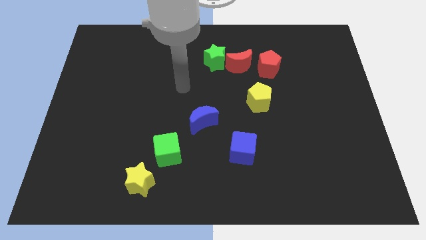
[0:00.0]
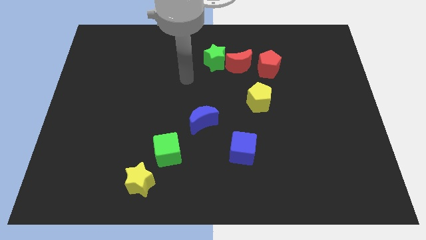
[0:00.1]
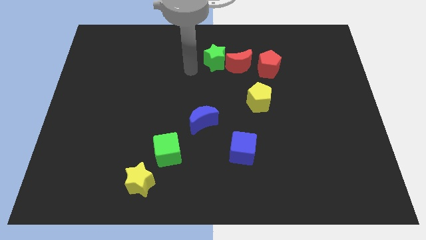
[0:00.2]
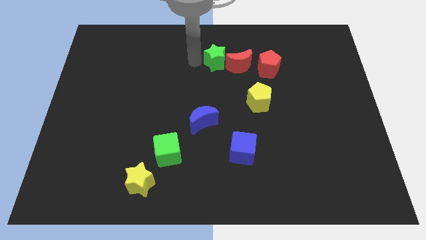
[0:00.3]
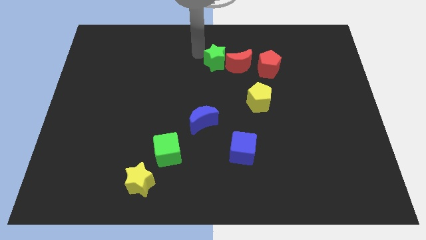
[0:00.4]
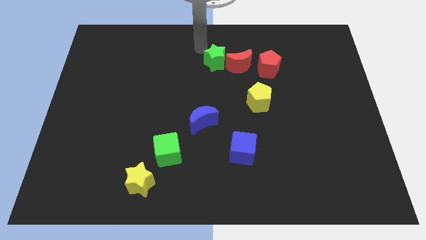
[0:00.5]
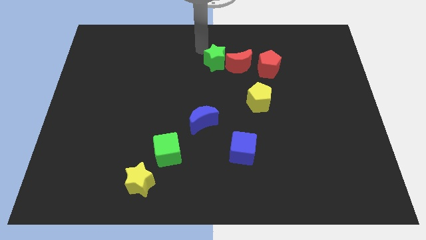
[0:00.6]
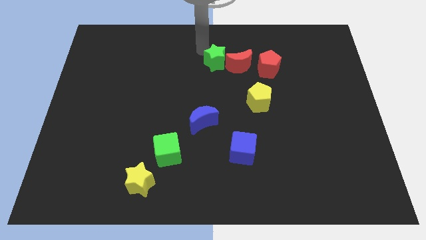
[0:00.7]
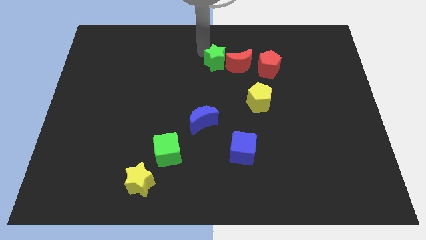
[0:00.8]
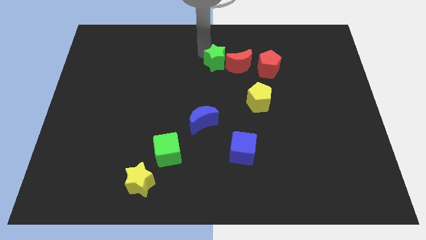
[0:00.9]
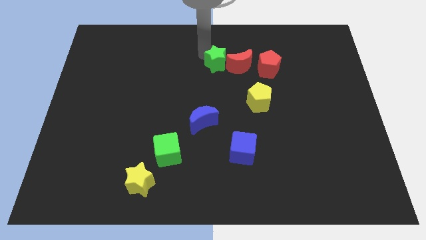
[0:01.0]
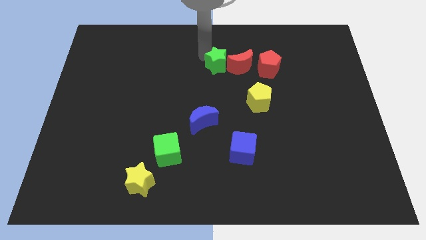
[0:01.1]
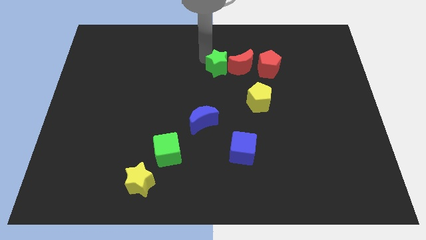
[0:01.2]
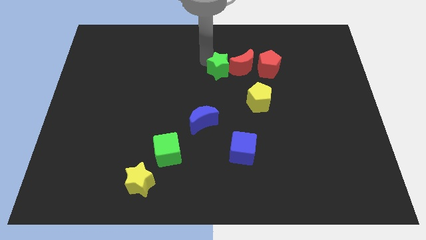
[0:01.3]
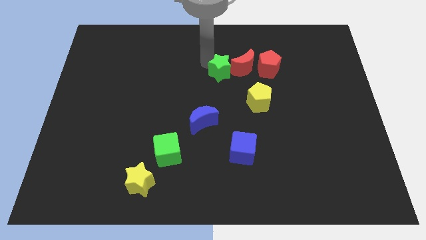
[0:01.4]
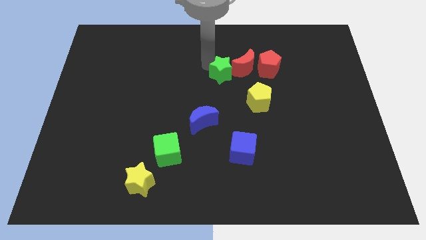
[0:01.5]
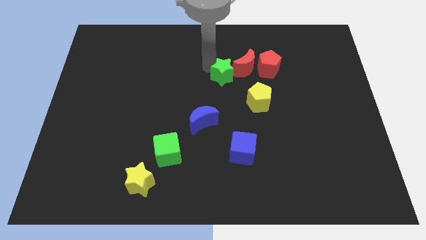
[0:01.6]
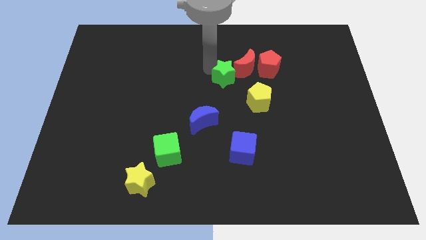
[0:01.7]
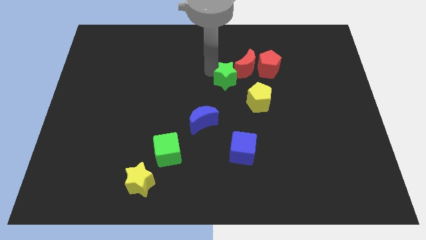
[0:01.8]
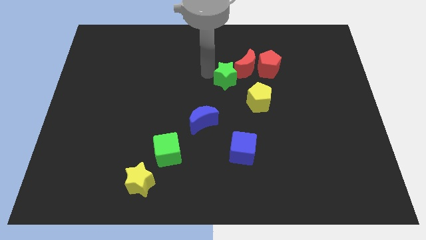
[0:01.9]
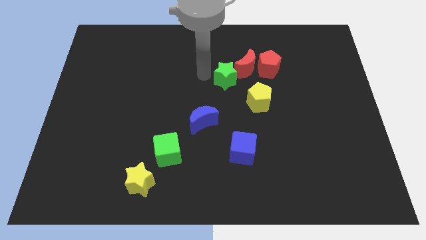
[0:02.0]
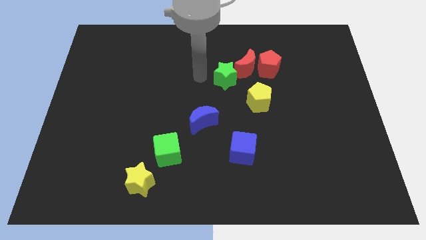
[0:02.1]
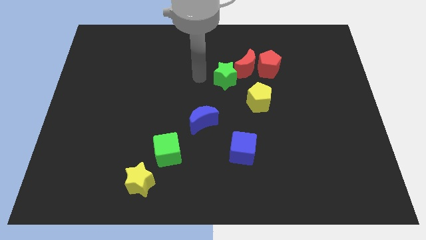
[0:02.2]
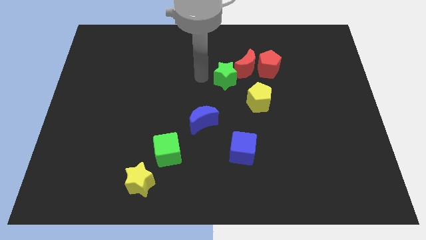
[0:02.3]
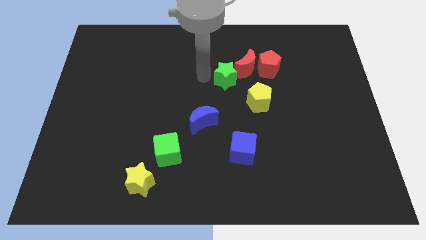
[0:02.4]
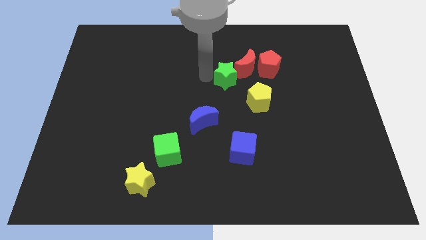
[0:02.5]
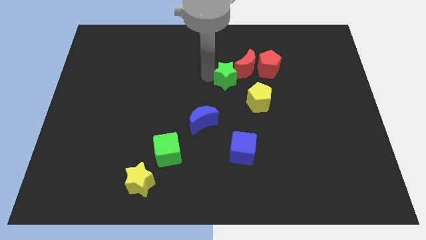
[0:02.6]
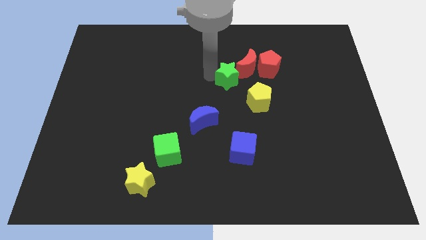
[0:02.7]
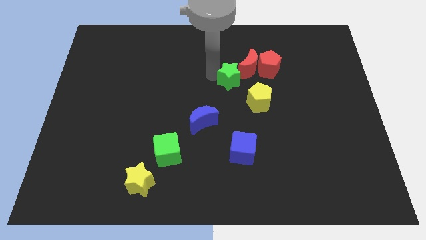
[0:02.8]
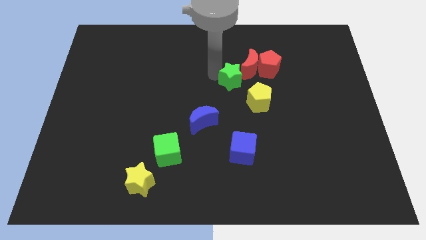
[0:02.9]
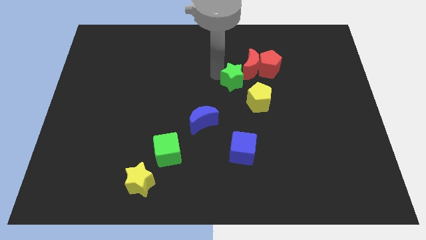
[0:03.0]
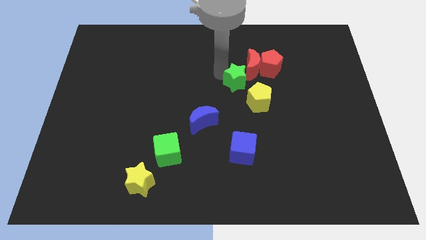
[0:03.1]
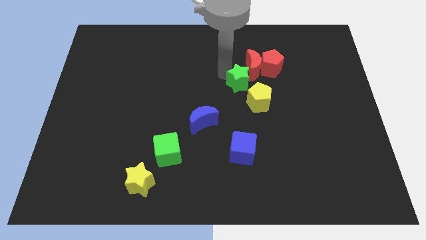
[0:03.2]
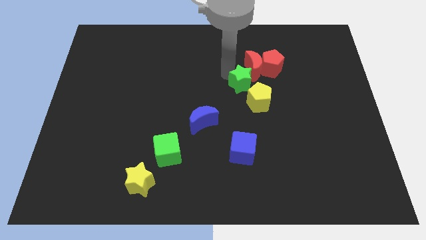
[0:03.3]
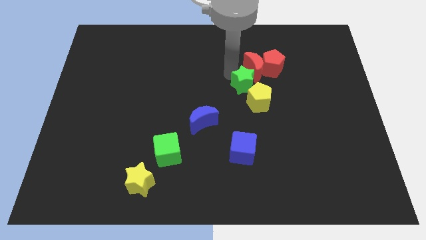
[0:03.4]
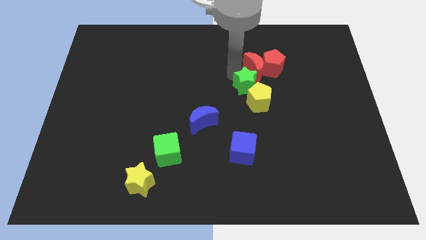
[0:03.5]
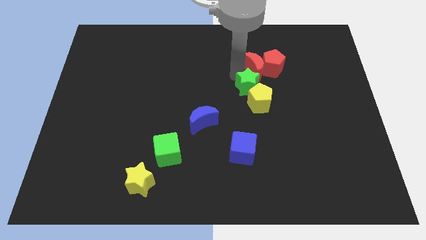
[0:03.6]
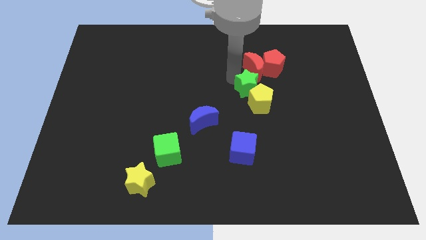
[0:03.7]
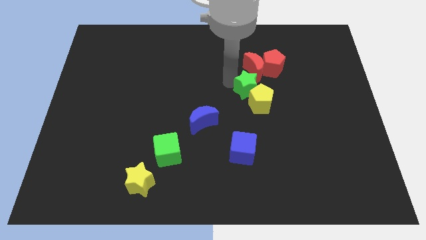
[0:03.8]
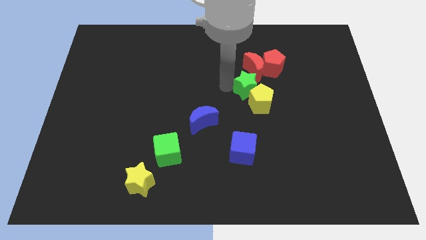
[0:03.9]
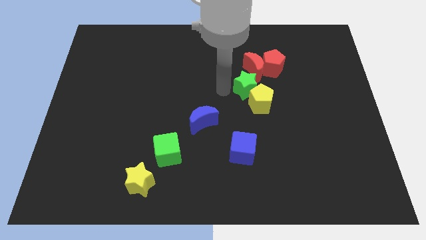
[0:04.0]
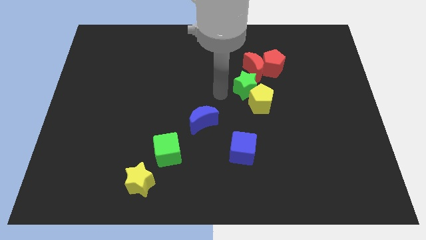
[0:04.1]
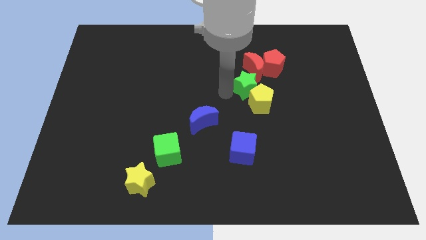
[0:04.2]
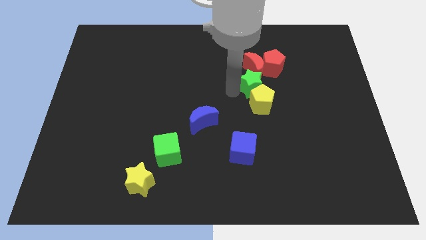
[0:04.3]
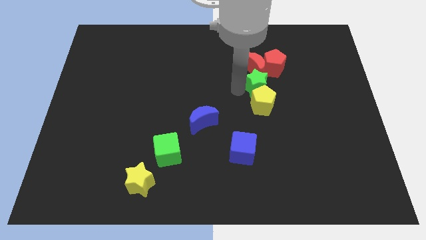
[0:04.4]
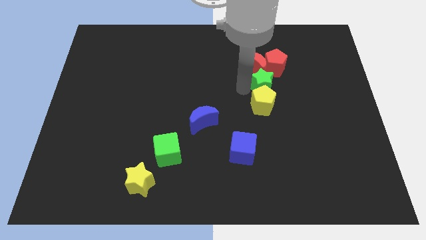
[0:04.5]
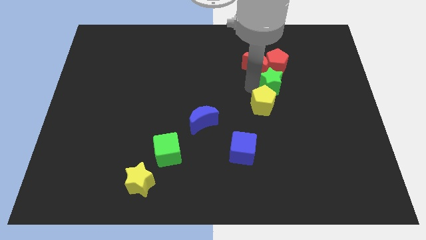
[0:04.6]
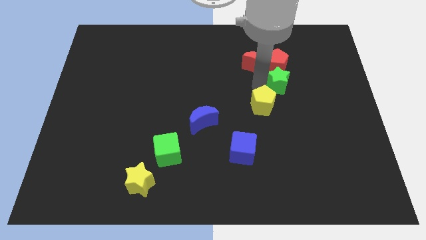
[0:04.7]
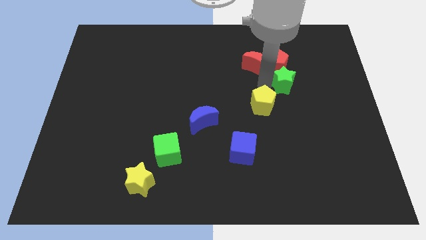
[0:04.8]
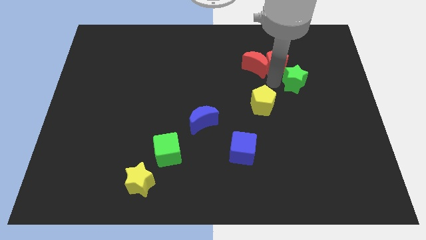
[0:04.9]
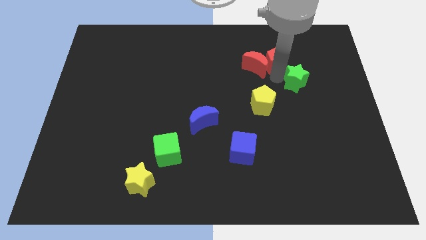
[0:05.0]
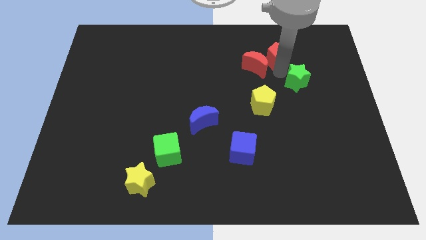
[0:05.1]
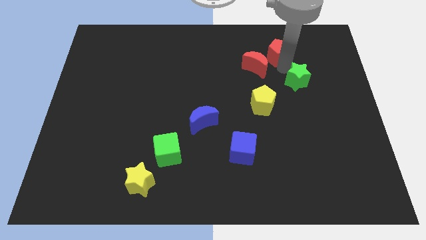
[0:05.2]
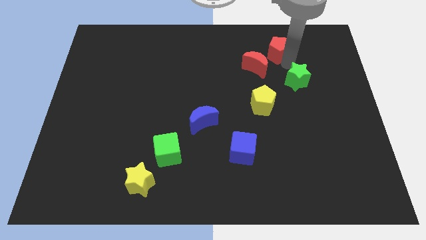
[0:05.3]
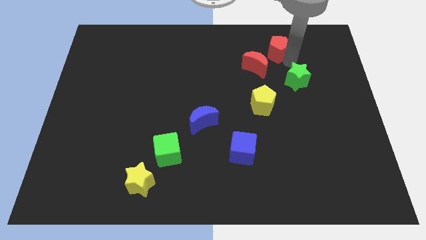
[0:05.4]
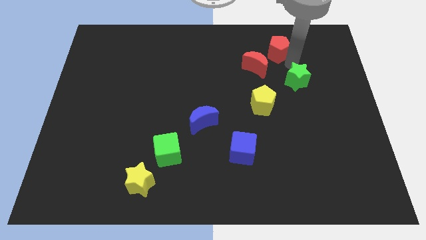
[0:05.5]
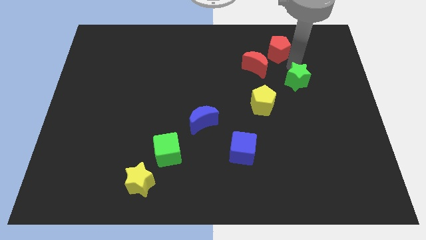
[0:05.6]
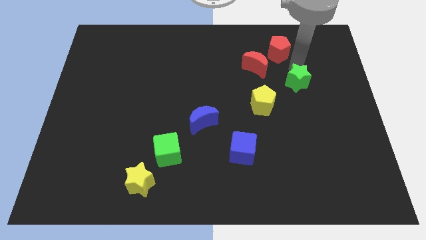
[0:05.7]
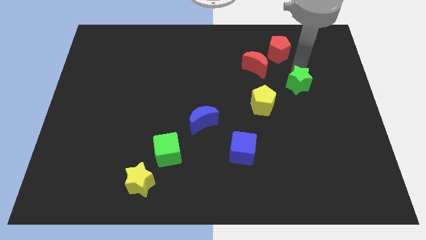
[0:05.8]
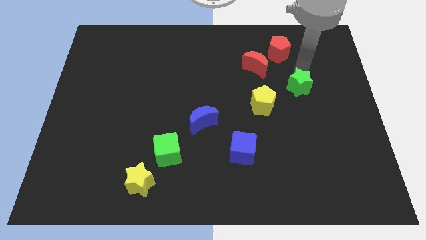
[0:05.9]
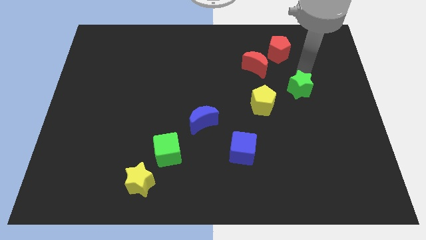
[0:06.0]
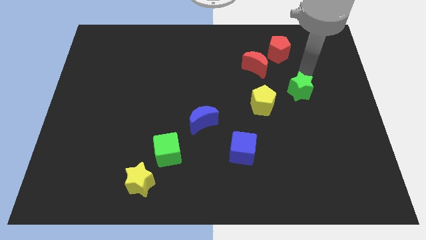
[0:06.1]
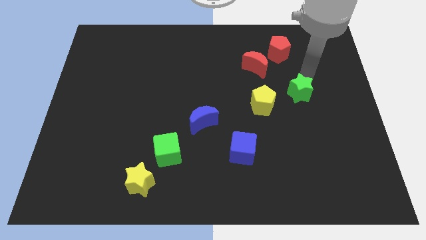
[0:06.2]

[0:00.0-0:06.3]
push the green star downwards and then to the right

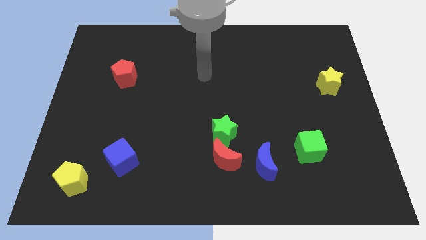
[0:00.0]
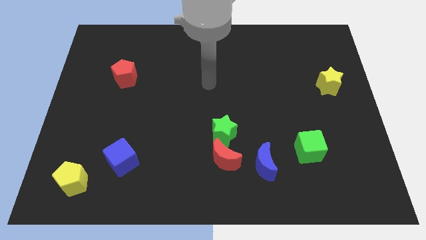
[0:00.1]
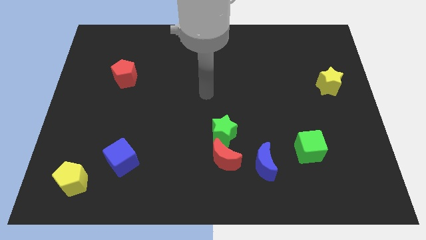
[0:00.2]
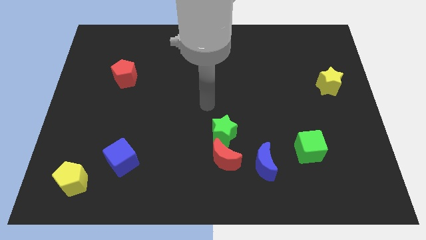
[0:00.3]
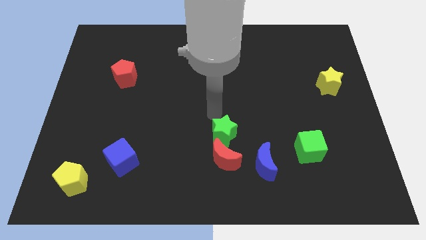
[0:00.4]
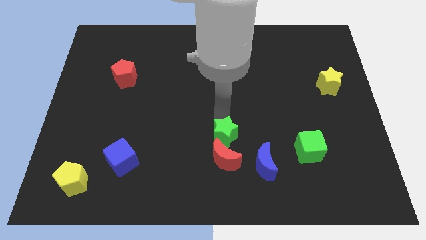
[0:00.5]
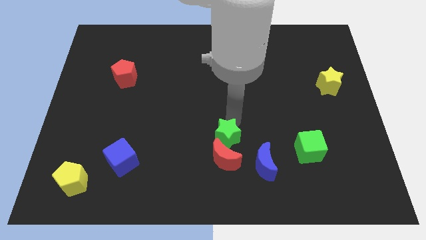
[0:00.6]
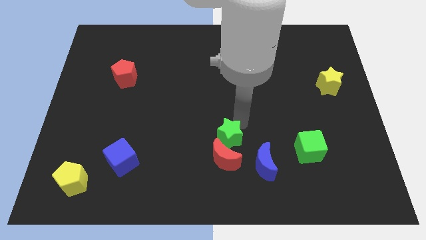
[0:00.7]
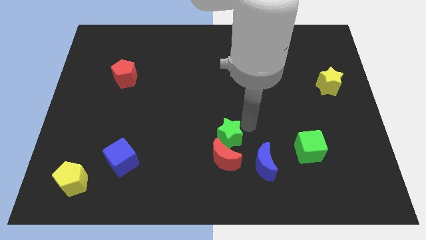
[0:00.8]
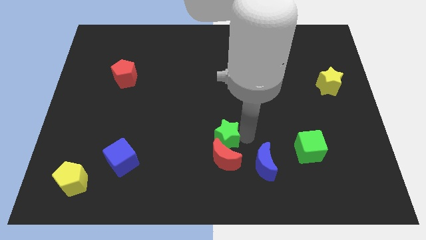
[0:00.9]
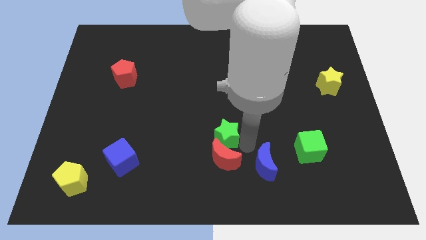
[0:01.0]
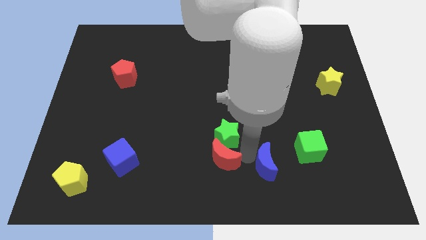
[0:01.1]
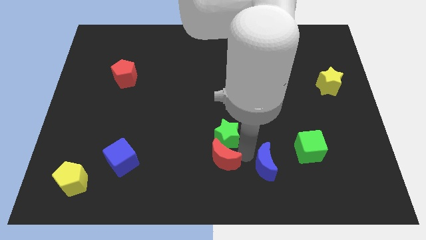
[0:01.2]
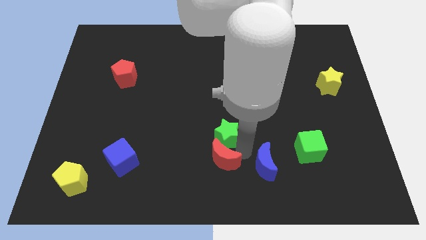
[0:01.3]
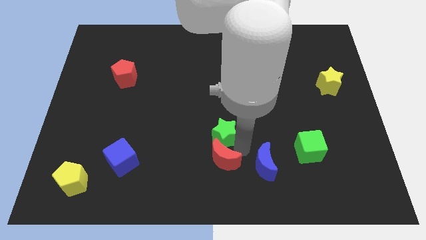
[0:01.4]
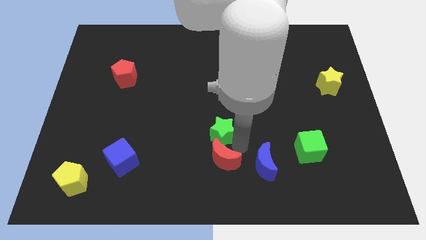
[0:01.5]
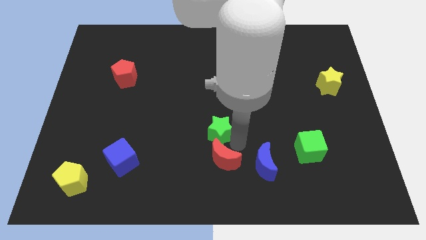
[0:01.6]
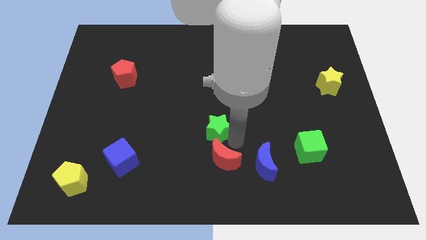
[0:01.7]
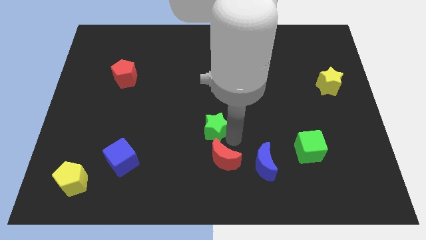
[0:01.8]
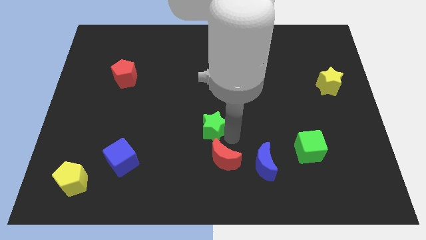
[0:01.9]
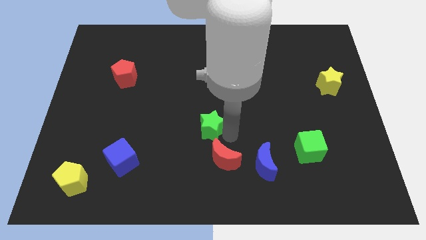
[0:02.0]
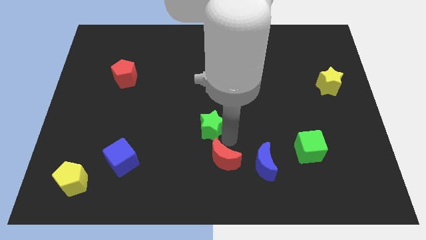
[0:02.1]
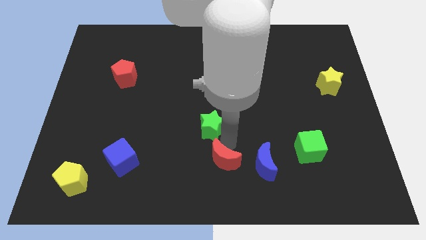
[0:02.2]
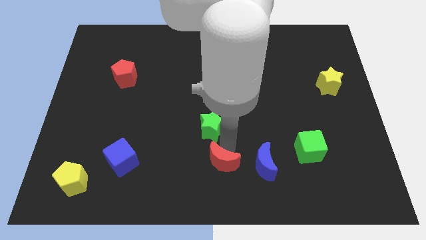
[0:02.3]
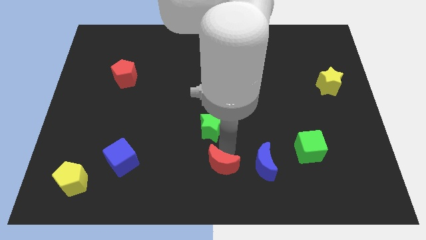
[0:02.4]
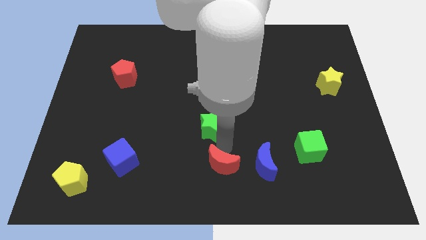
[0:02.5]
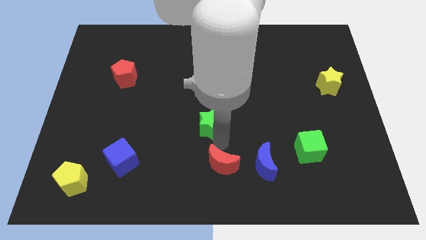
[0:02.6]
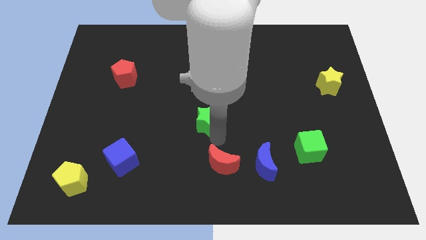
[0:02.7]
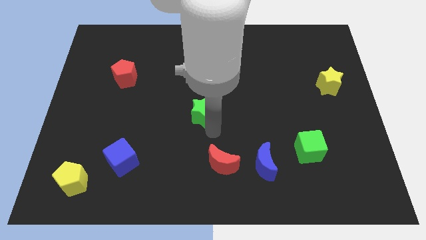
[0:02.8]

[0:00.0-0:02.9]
push the green star up and then to the left slightly
